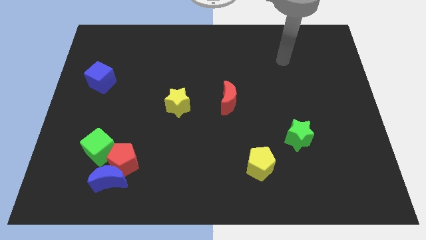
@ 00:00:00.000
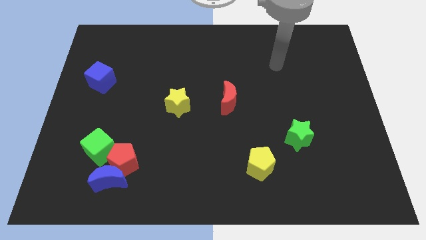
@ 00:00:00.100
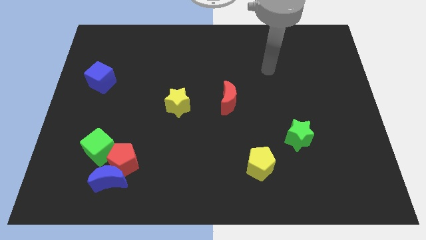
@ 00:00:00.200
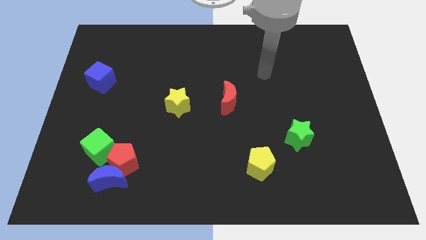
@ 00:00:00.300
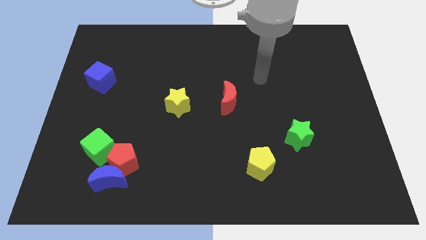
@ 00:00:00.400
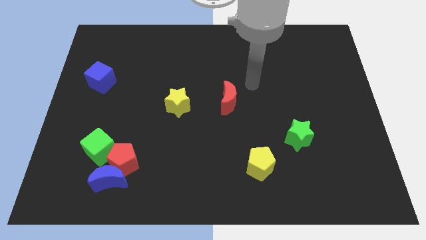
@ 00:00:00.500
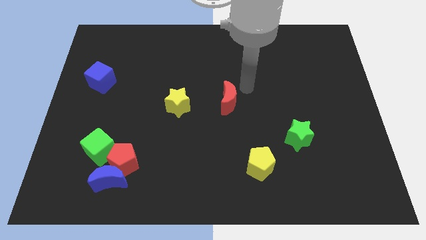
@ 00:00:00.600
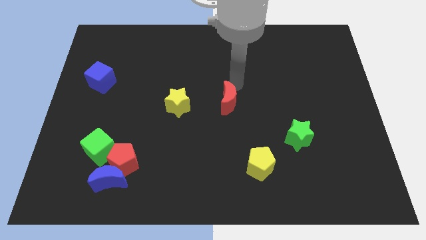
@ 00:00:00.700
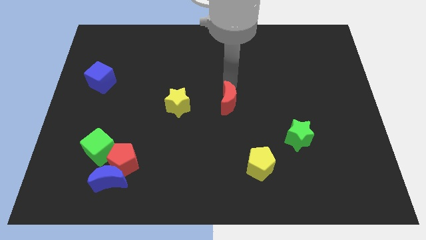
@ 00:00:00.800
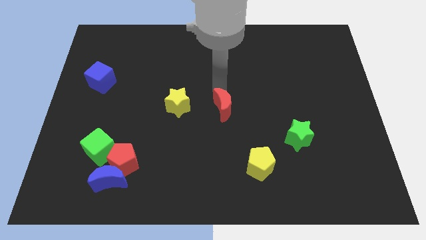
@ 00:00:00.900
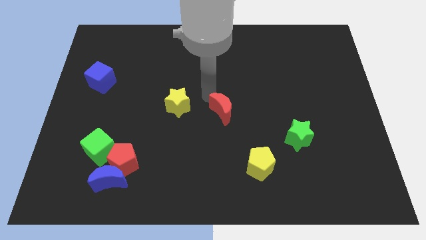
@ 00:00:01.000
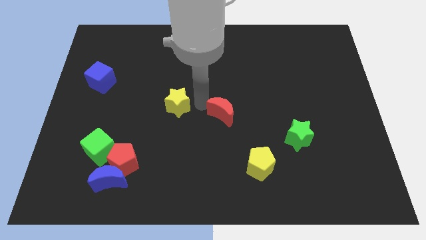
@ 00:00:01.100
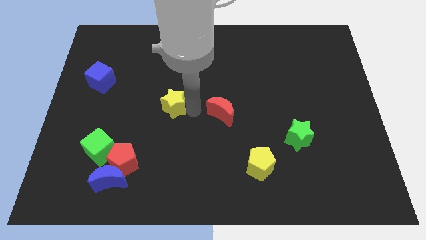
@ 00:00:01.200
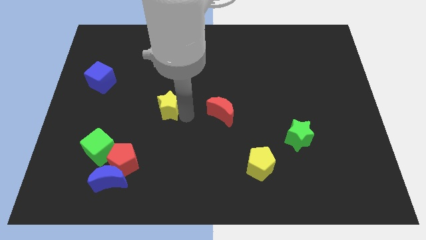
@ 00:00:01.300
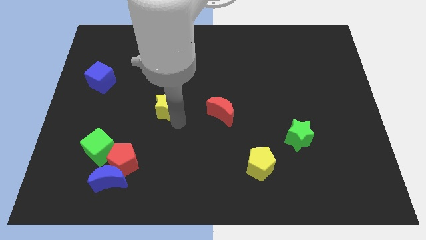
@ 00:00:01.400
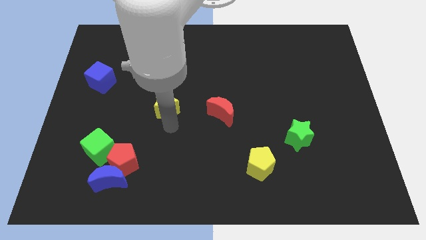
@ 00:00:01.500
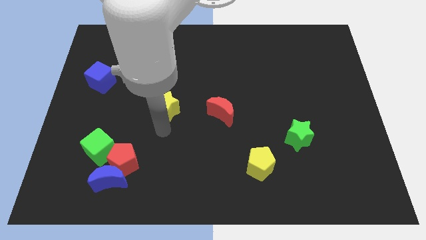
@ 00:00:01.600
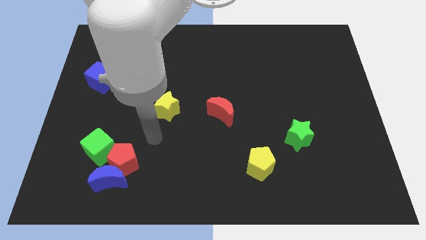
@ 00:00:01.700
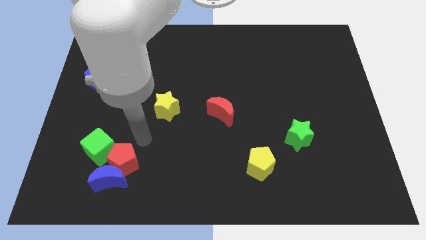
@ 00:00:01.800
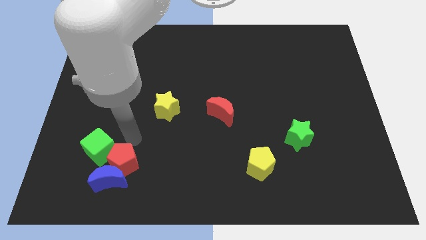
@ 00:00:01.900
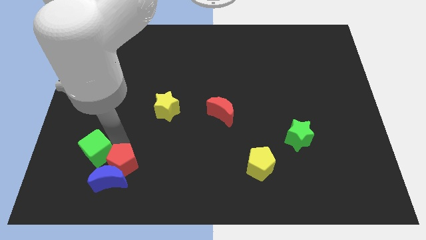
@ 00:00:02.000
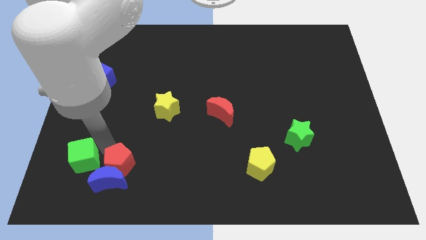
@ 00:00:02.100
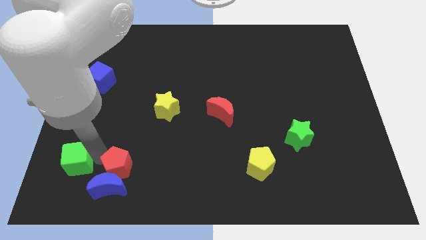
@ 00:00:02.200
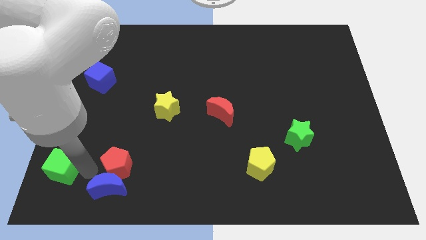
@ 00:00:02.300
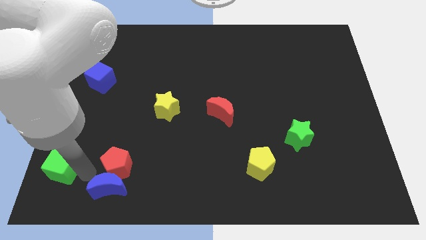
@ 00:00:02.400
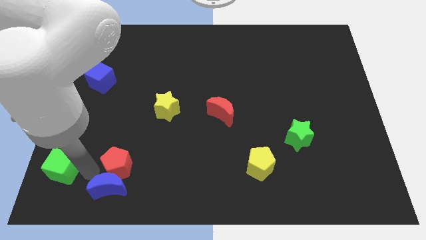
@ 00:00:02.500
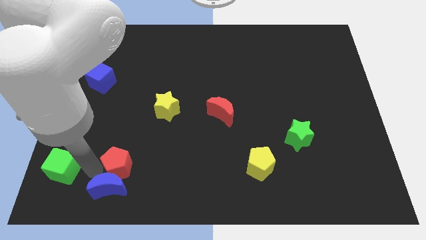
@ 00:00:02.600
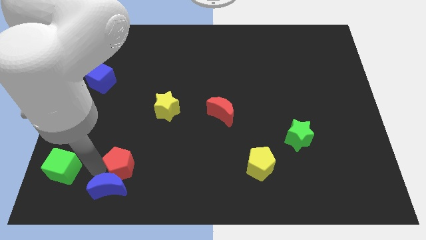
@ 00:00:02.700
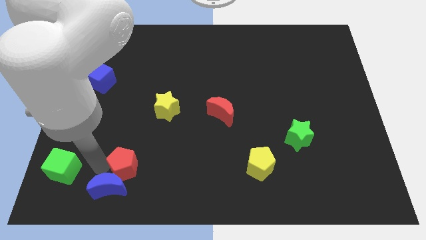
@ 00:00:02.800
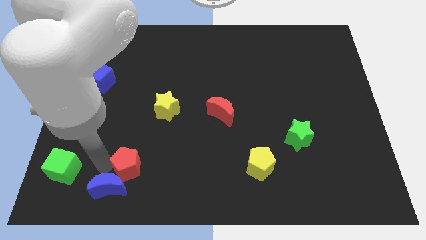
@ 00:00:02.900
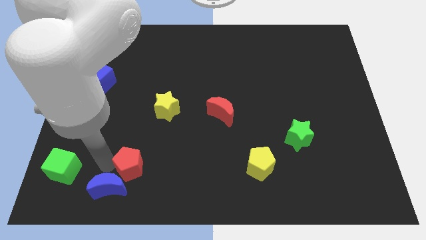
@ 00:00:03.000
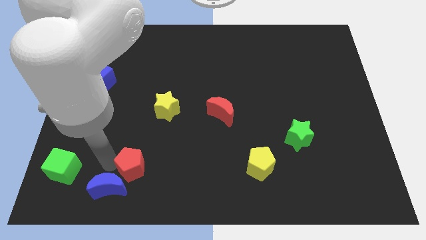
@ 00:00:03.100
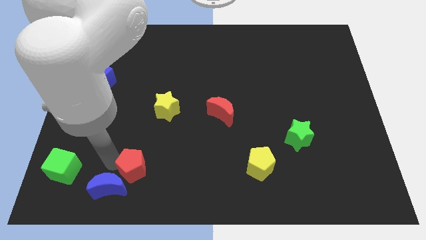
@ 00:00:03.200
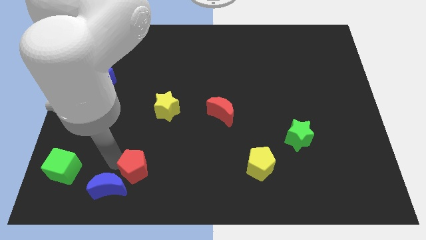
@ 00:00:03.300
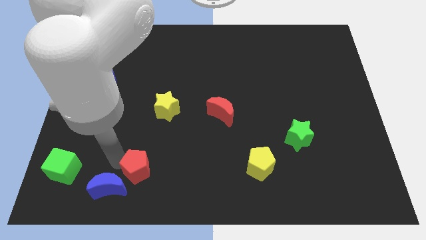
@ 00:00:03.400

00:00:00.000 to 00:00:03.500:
move the red pentagon away from the blue moon and green cube

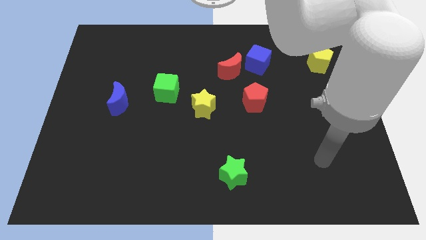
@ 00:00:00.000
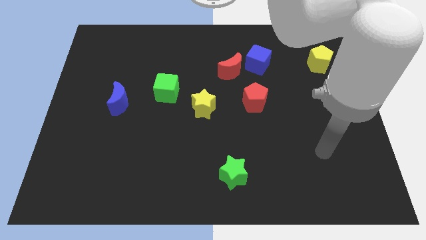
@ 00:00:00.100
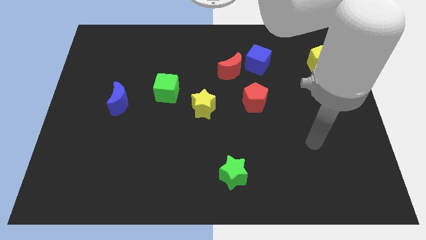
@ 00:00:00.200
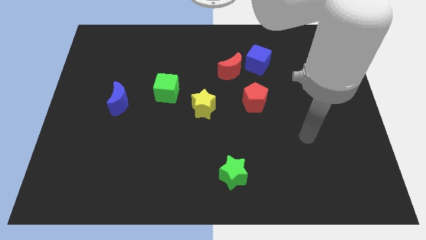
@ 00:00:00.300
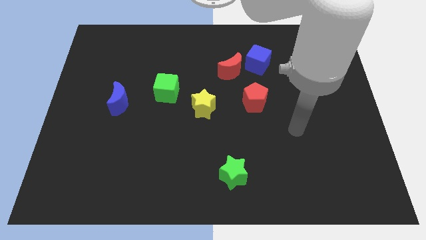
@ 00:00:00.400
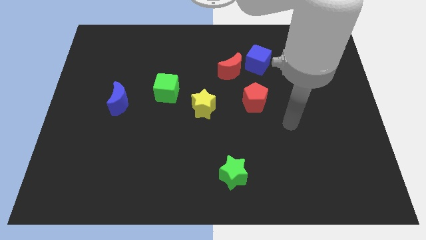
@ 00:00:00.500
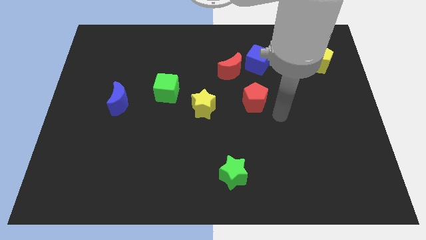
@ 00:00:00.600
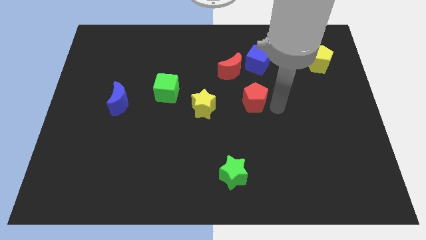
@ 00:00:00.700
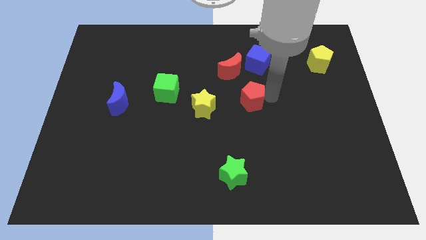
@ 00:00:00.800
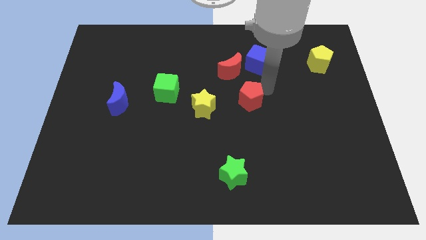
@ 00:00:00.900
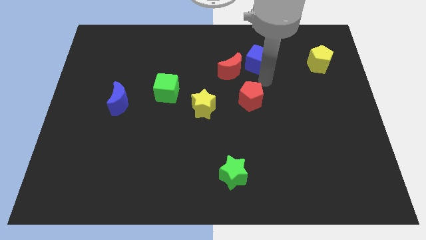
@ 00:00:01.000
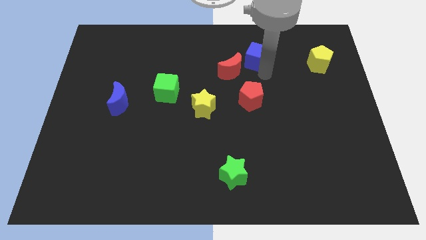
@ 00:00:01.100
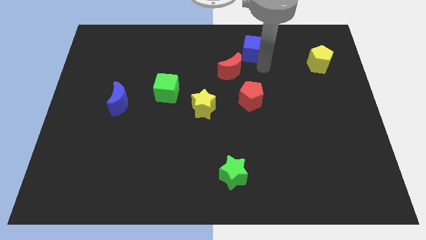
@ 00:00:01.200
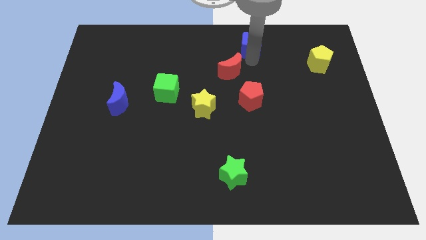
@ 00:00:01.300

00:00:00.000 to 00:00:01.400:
pull the red moon apart from the blue cube

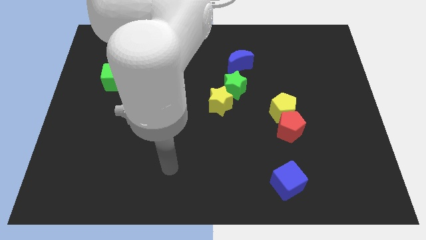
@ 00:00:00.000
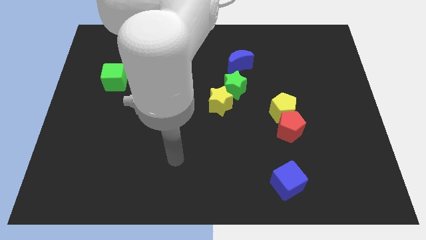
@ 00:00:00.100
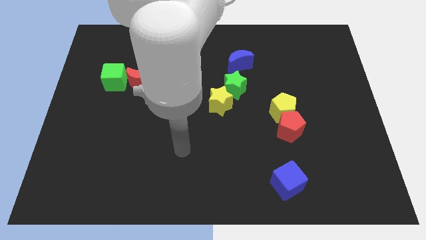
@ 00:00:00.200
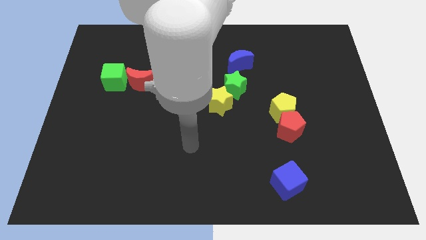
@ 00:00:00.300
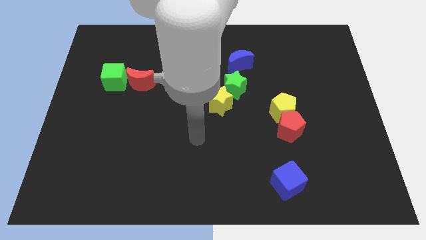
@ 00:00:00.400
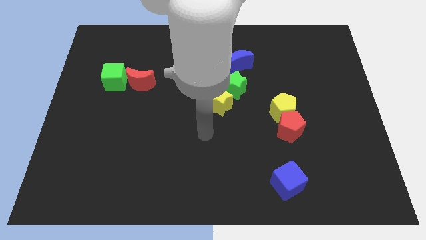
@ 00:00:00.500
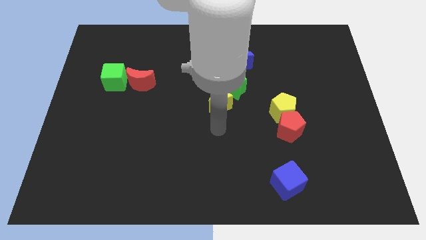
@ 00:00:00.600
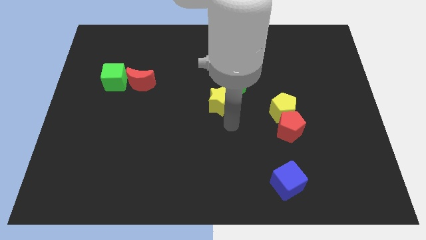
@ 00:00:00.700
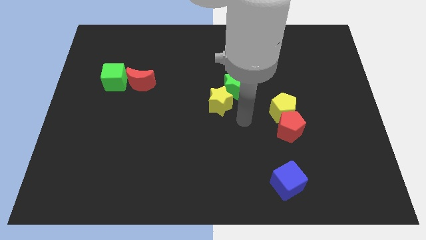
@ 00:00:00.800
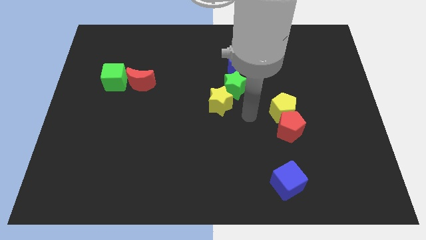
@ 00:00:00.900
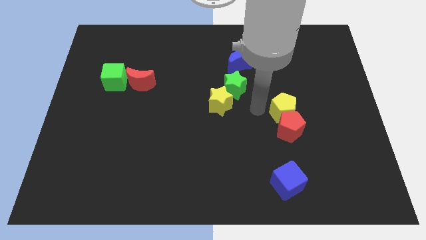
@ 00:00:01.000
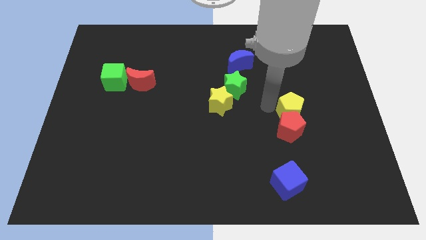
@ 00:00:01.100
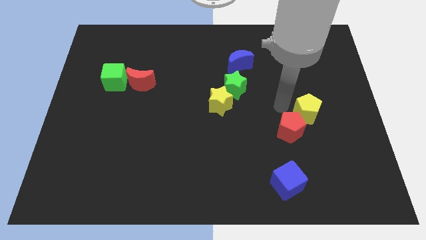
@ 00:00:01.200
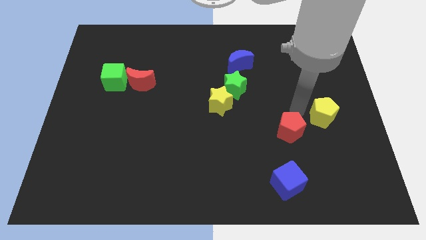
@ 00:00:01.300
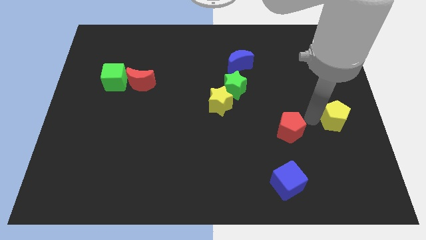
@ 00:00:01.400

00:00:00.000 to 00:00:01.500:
separate the red pentagon from the yellow pentagon

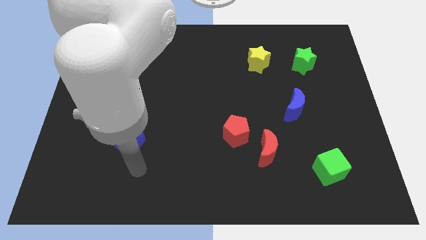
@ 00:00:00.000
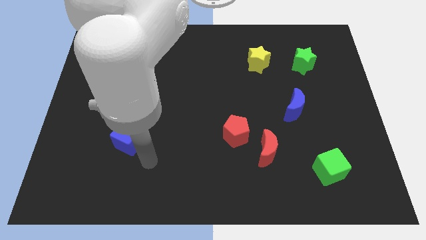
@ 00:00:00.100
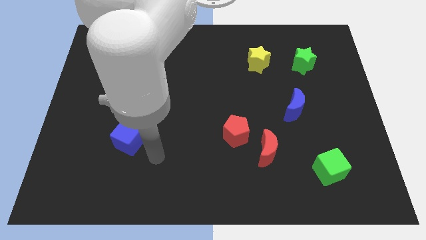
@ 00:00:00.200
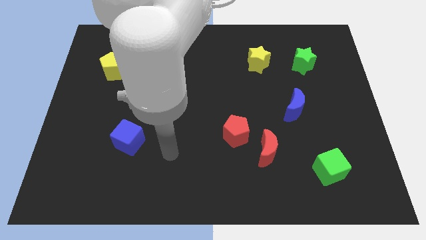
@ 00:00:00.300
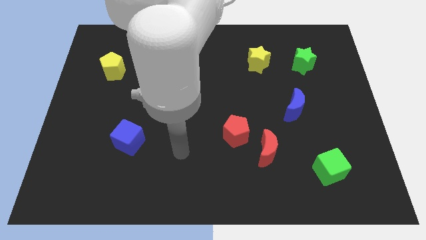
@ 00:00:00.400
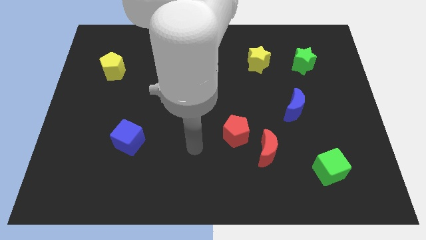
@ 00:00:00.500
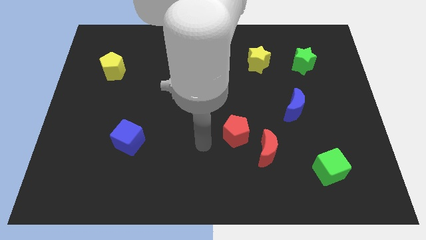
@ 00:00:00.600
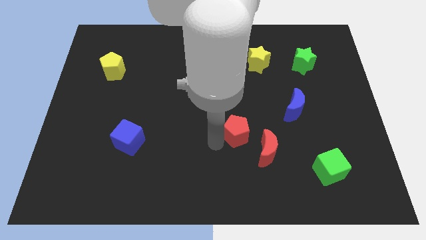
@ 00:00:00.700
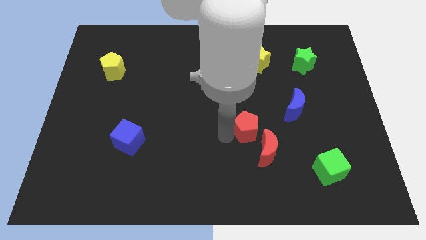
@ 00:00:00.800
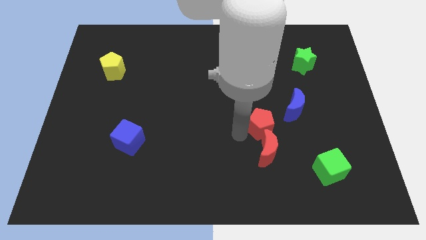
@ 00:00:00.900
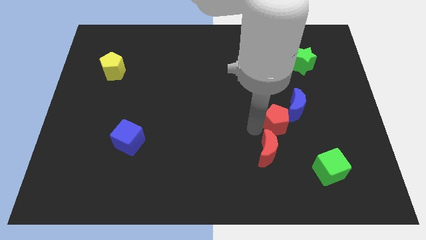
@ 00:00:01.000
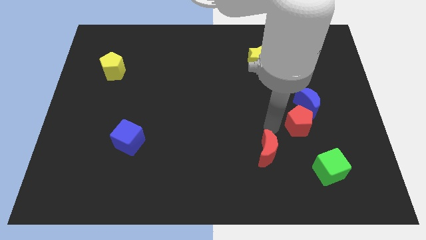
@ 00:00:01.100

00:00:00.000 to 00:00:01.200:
separate the red moon from the red pentagon

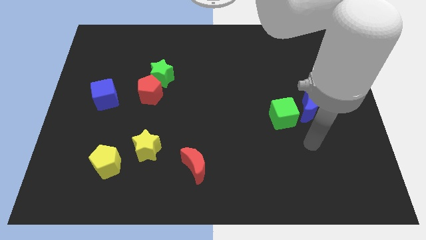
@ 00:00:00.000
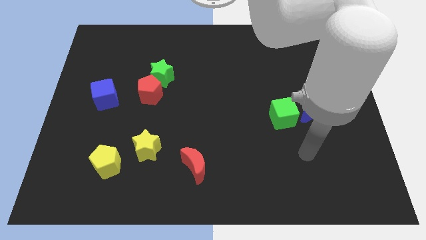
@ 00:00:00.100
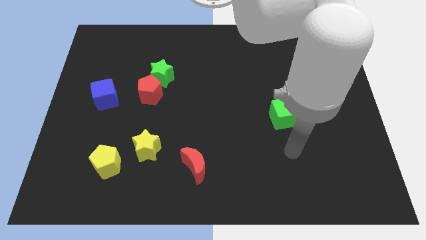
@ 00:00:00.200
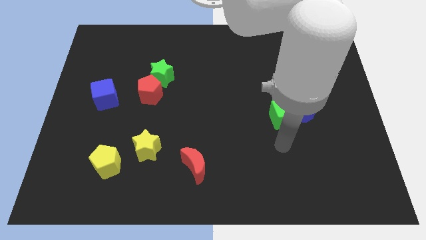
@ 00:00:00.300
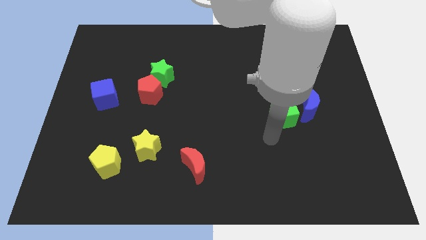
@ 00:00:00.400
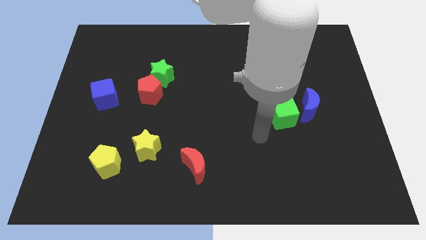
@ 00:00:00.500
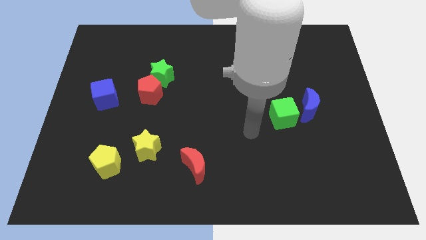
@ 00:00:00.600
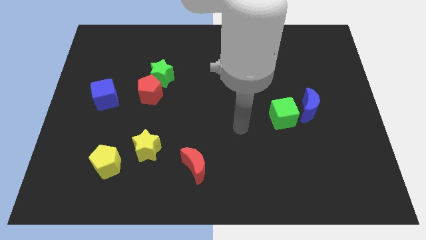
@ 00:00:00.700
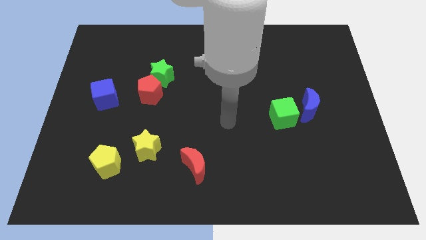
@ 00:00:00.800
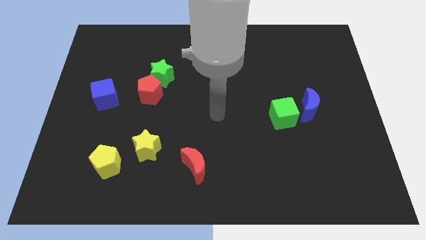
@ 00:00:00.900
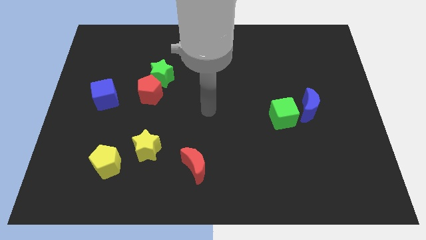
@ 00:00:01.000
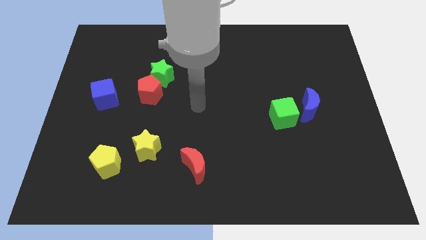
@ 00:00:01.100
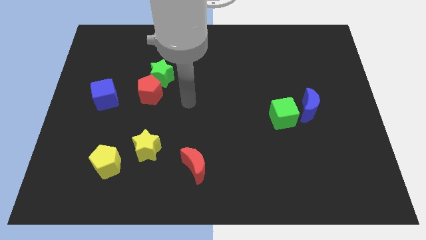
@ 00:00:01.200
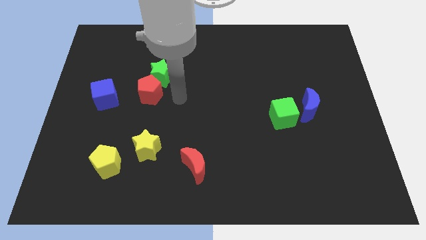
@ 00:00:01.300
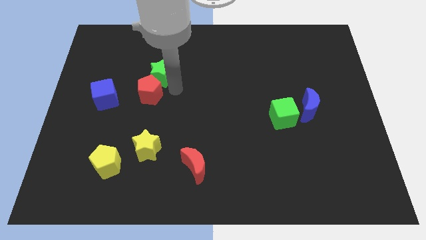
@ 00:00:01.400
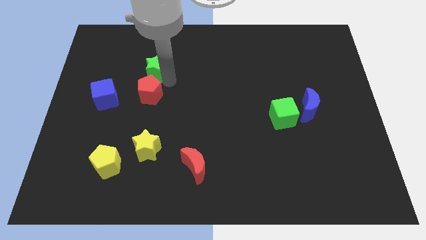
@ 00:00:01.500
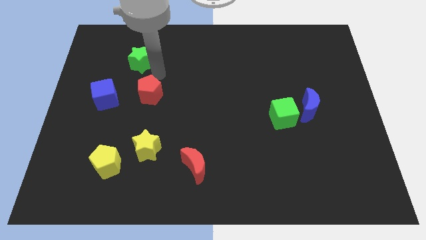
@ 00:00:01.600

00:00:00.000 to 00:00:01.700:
separate the red pentagon from the green star
